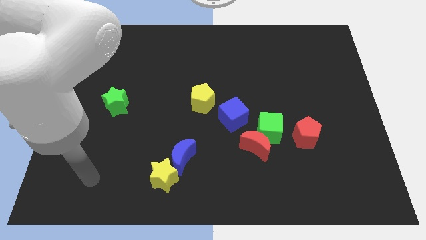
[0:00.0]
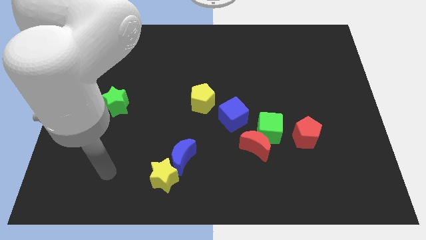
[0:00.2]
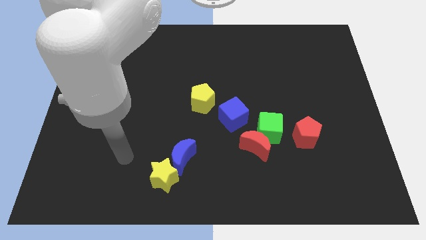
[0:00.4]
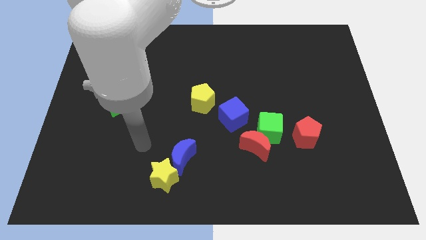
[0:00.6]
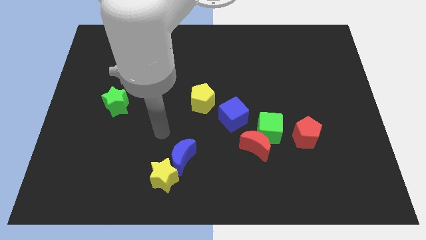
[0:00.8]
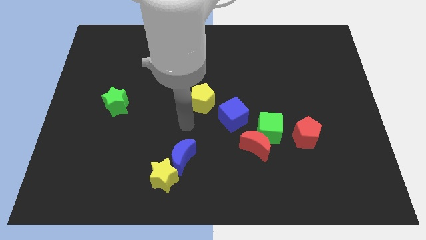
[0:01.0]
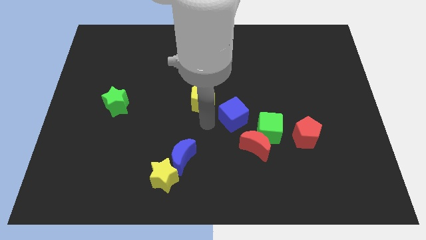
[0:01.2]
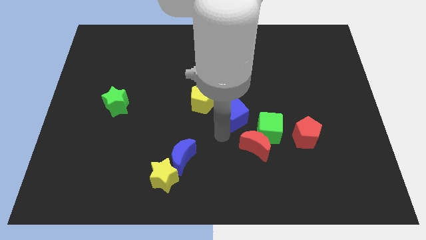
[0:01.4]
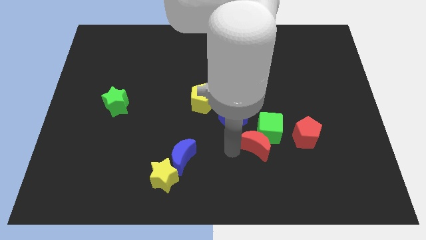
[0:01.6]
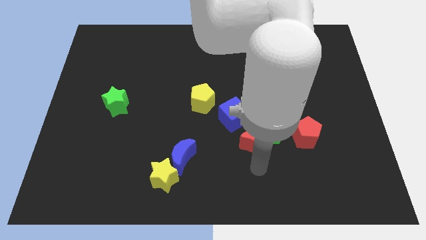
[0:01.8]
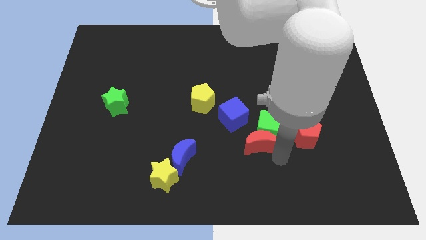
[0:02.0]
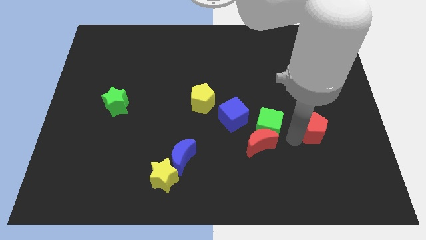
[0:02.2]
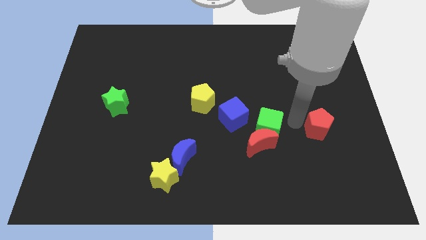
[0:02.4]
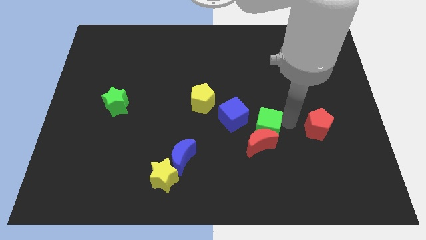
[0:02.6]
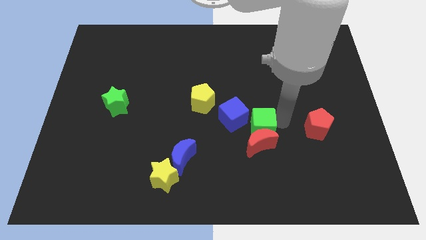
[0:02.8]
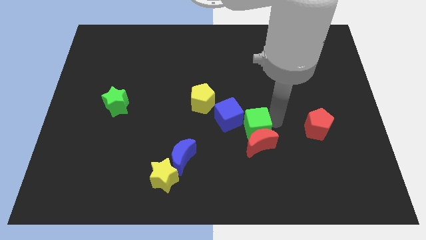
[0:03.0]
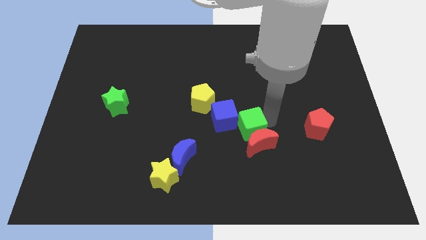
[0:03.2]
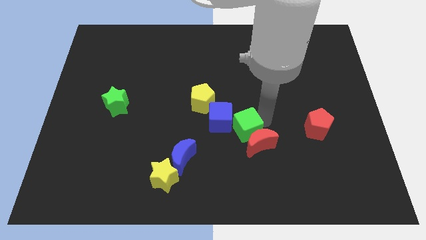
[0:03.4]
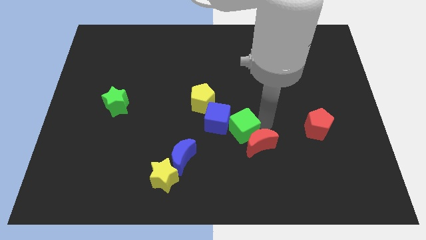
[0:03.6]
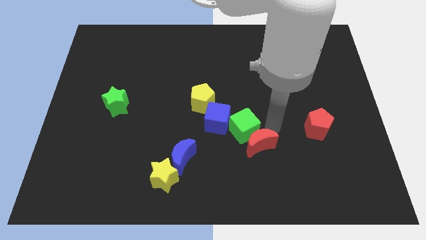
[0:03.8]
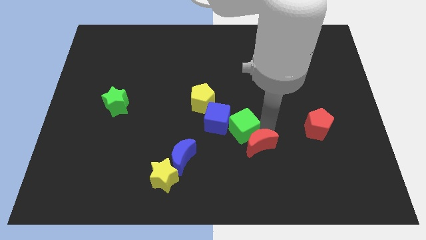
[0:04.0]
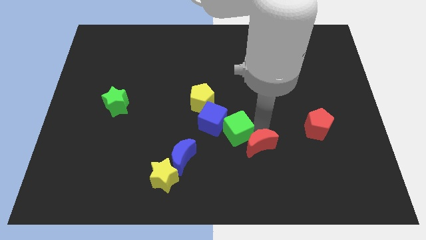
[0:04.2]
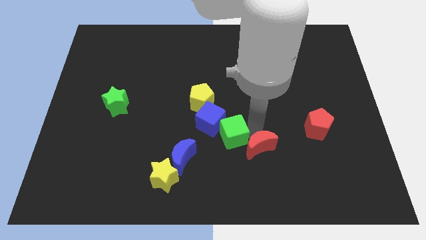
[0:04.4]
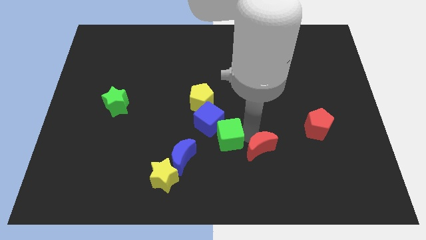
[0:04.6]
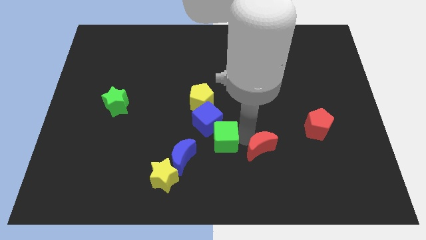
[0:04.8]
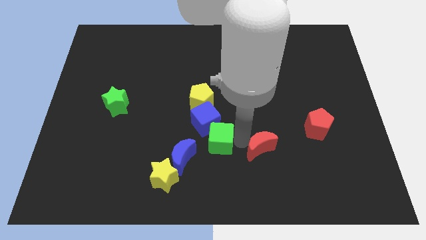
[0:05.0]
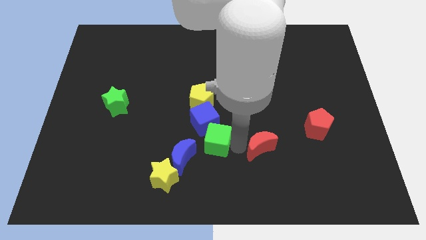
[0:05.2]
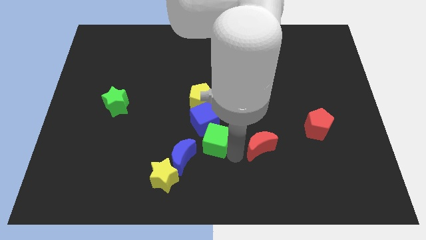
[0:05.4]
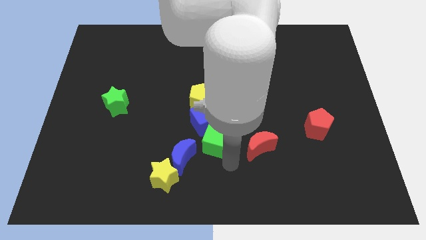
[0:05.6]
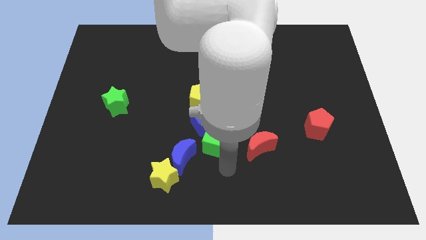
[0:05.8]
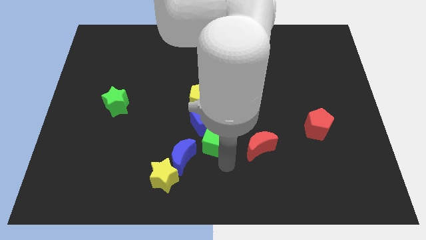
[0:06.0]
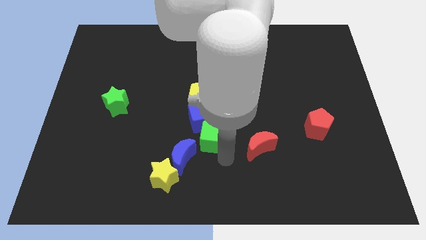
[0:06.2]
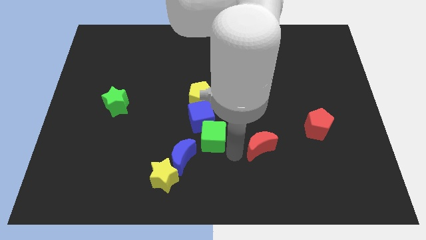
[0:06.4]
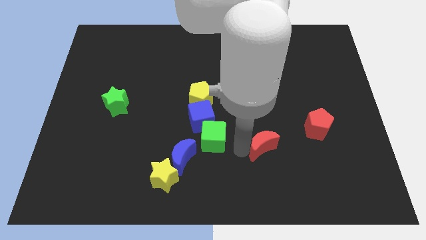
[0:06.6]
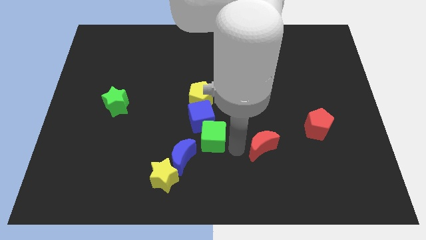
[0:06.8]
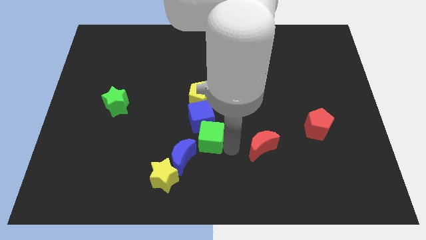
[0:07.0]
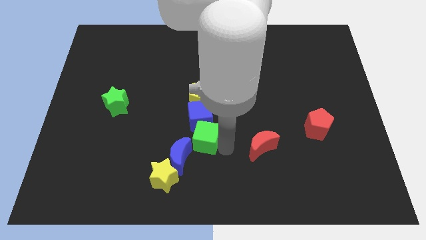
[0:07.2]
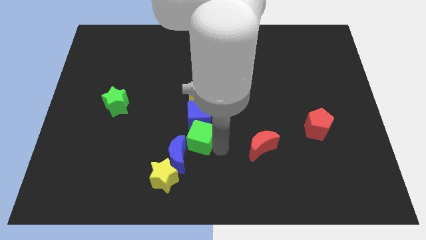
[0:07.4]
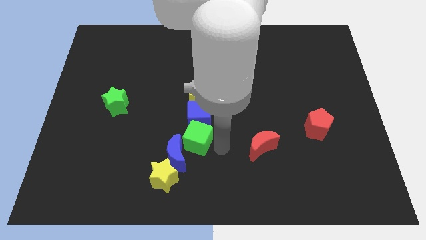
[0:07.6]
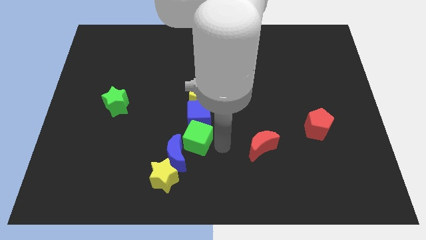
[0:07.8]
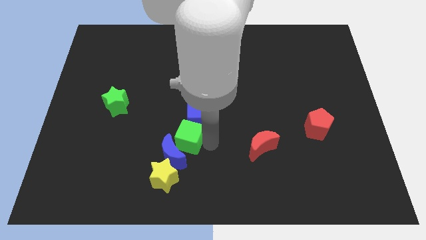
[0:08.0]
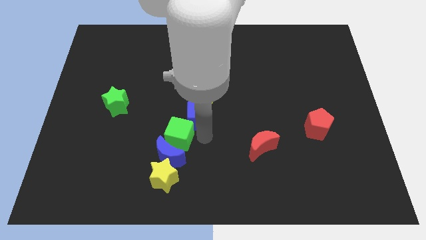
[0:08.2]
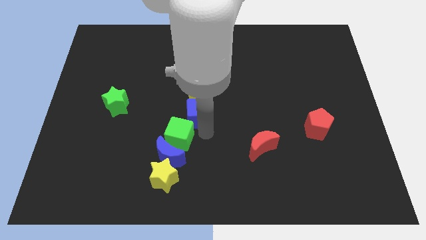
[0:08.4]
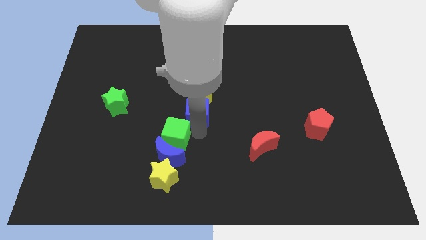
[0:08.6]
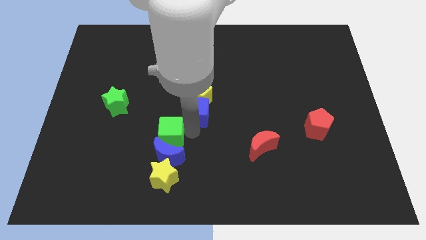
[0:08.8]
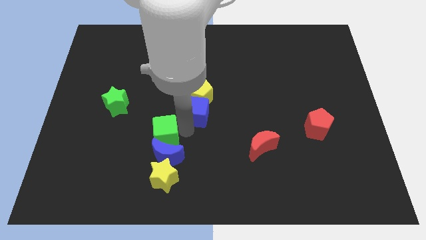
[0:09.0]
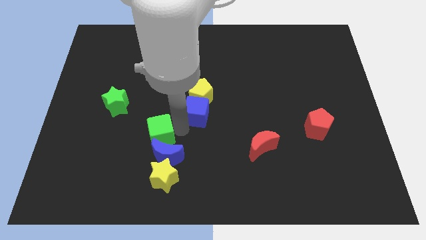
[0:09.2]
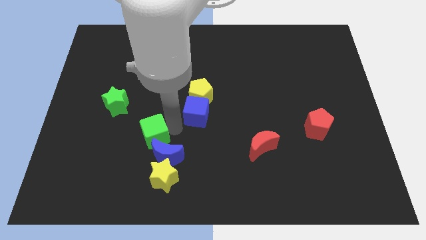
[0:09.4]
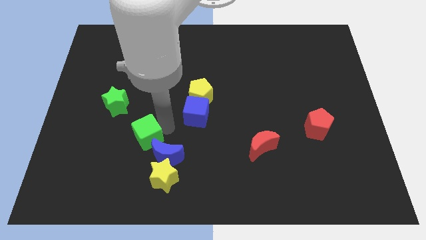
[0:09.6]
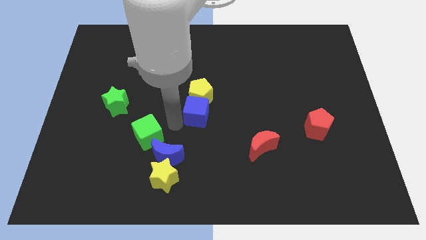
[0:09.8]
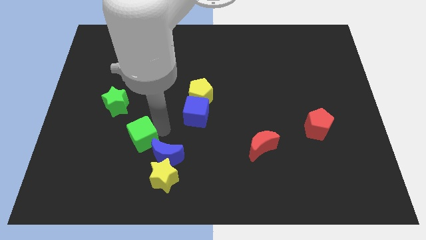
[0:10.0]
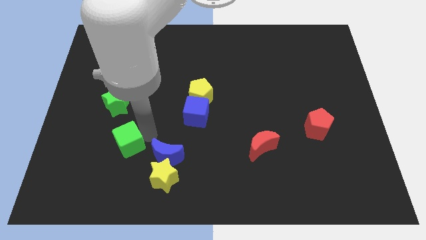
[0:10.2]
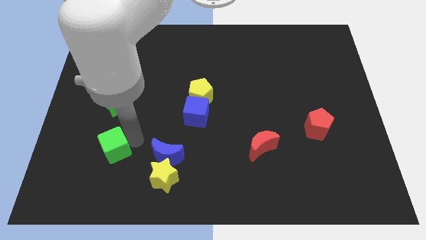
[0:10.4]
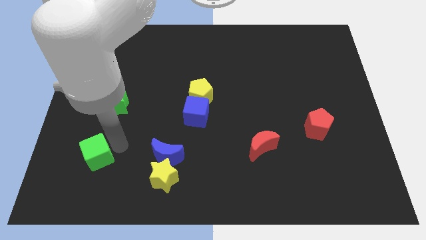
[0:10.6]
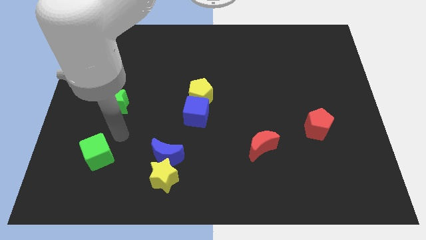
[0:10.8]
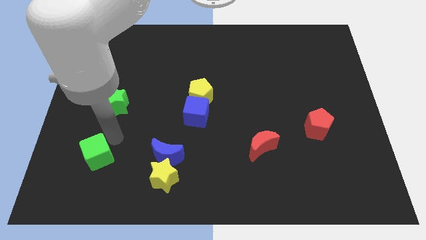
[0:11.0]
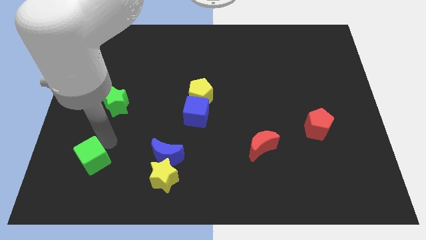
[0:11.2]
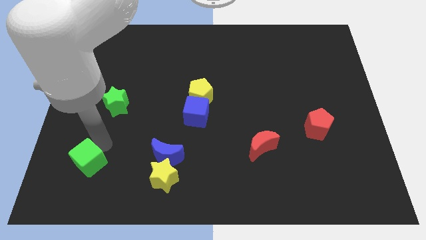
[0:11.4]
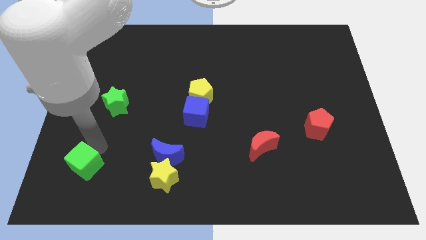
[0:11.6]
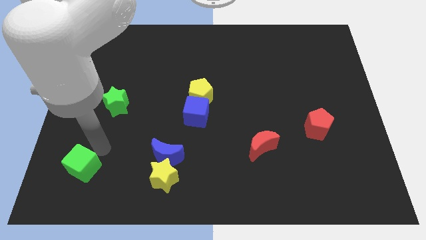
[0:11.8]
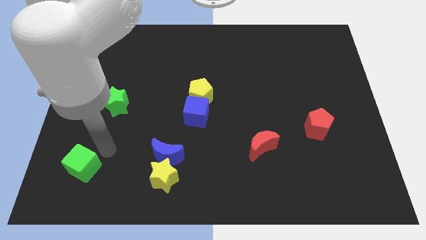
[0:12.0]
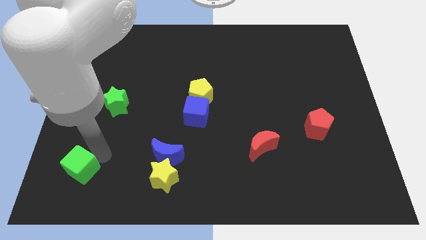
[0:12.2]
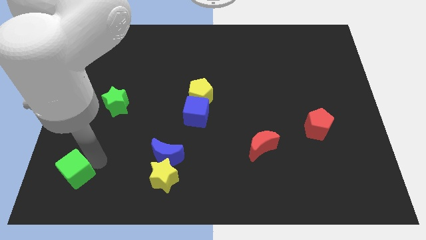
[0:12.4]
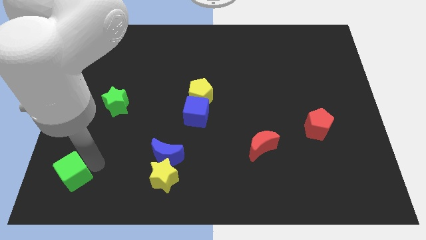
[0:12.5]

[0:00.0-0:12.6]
push the green cube to the bottom left
